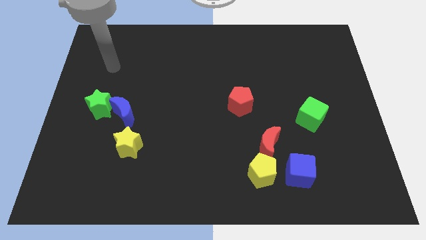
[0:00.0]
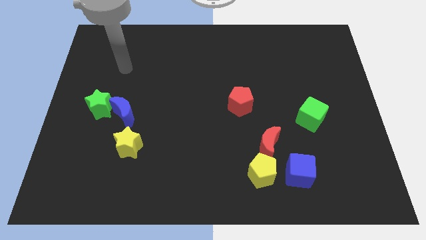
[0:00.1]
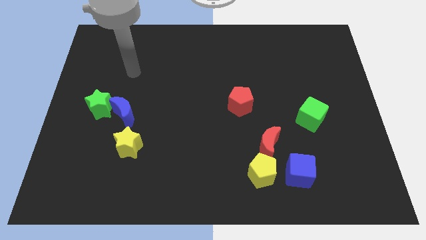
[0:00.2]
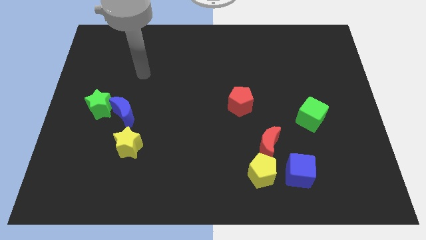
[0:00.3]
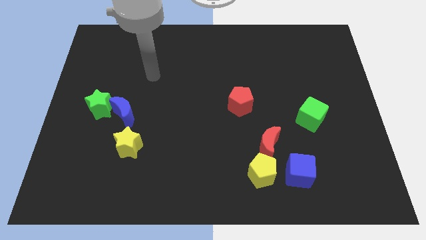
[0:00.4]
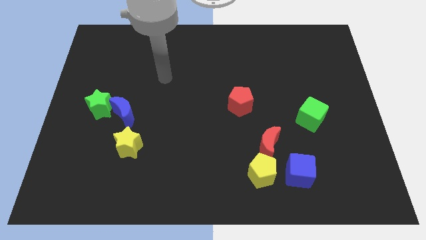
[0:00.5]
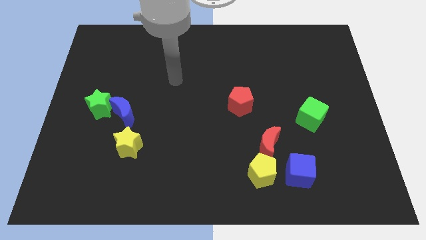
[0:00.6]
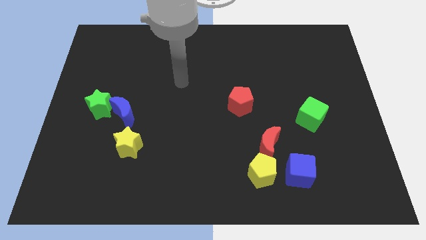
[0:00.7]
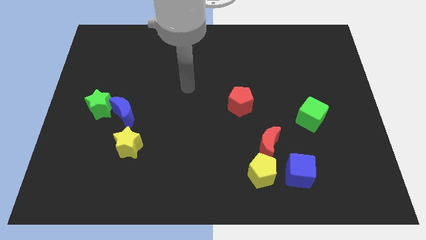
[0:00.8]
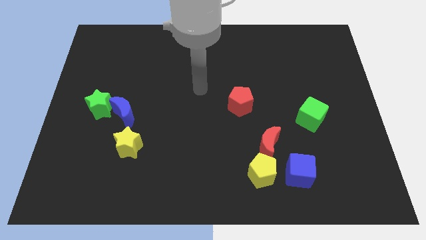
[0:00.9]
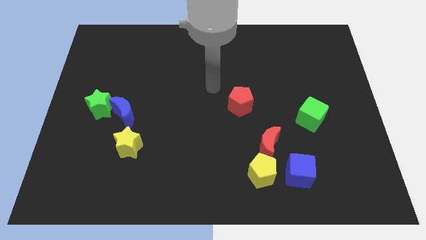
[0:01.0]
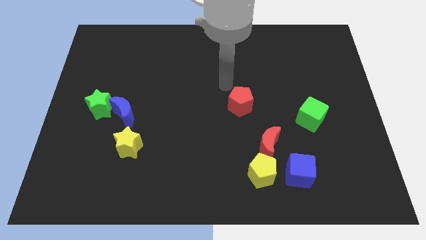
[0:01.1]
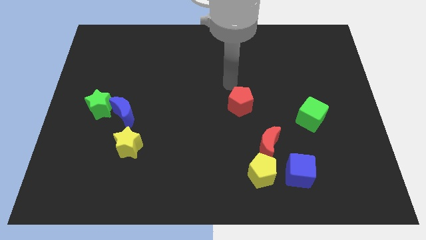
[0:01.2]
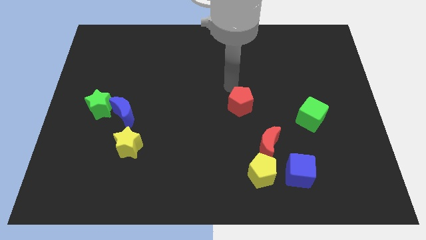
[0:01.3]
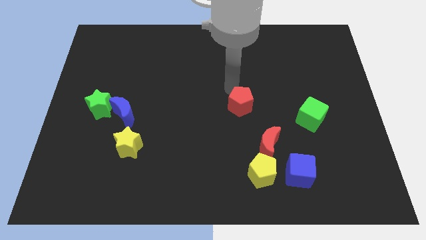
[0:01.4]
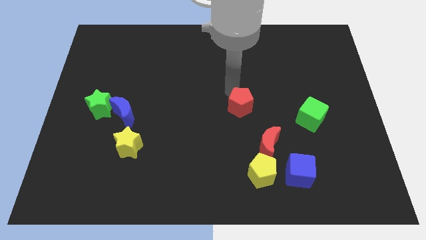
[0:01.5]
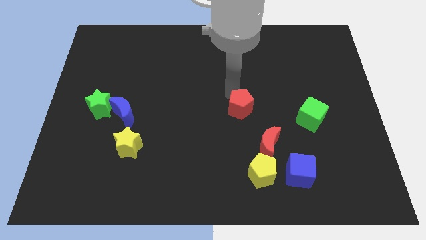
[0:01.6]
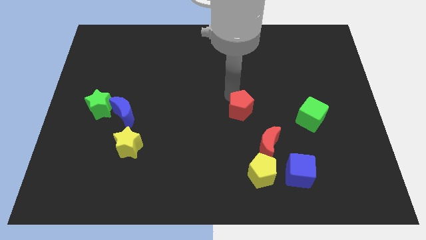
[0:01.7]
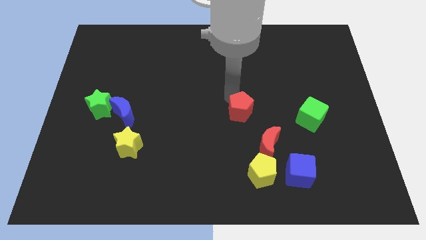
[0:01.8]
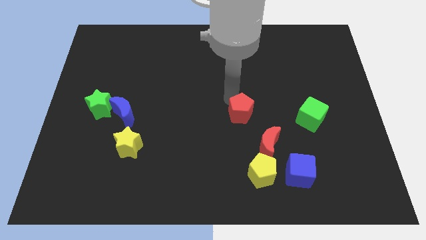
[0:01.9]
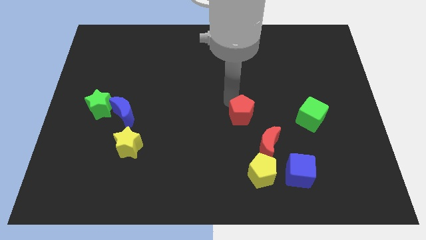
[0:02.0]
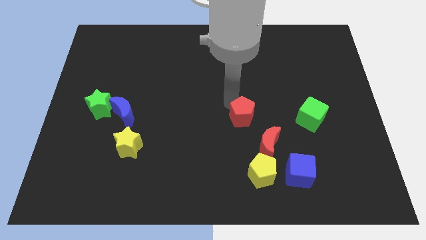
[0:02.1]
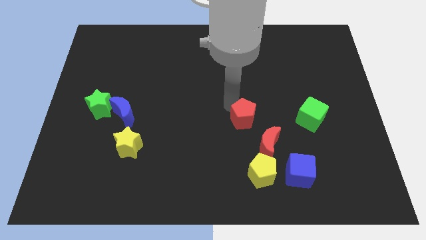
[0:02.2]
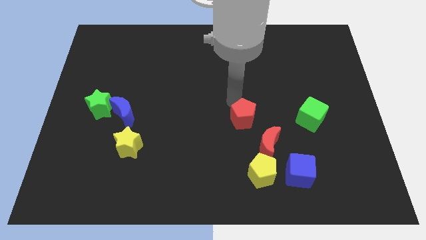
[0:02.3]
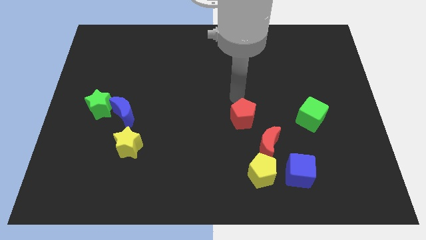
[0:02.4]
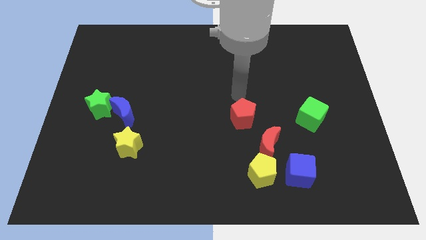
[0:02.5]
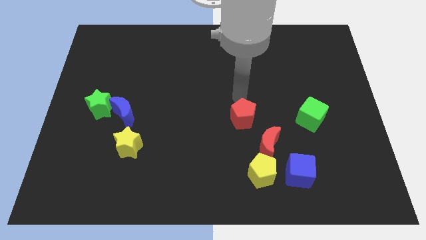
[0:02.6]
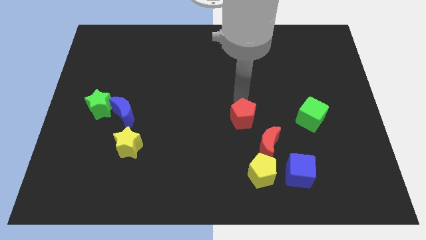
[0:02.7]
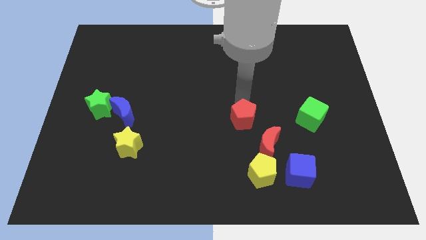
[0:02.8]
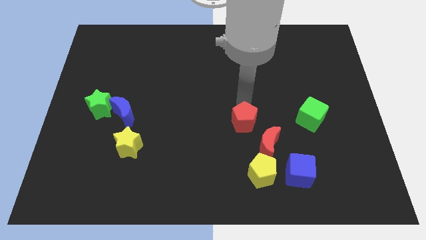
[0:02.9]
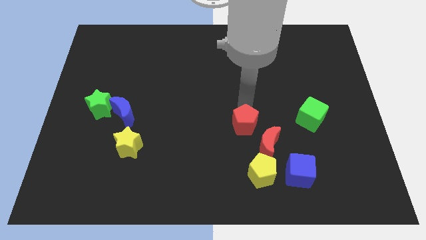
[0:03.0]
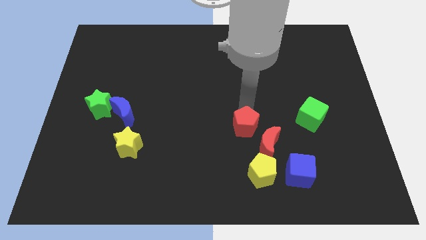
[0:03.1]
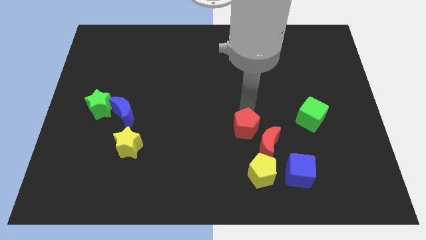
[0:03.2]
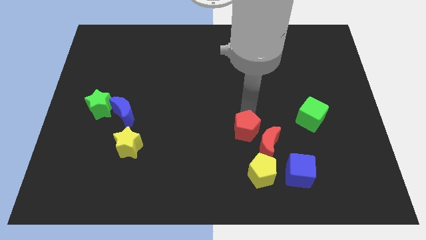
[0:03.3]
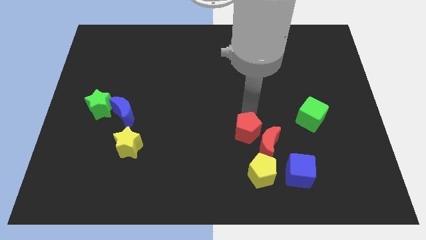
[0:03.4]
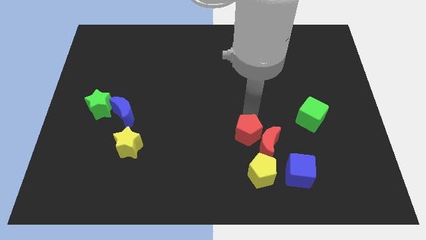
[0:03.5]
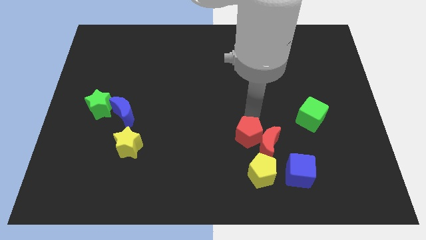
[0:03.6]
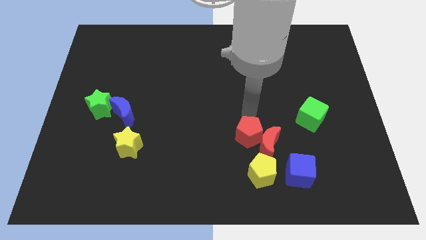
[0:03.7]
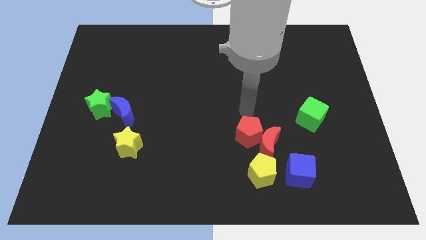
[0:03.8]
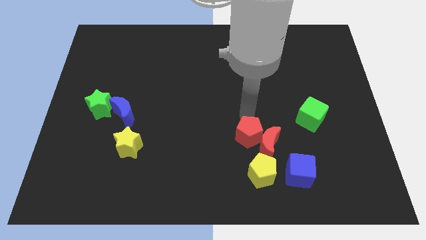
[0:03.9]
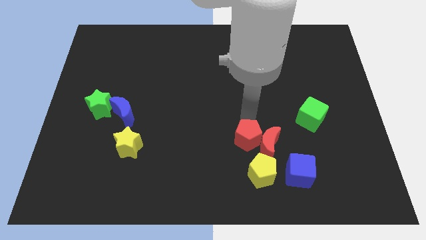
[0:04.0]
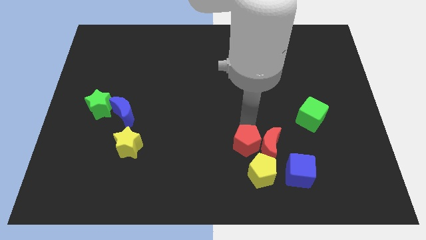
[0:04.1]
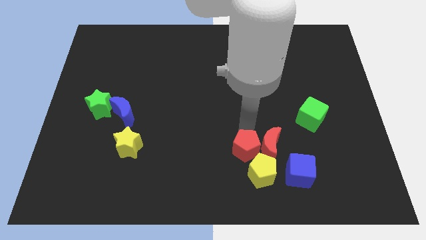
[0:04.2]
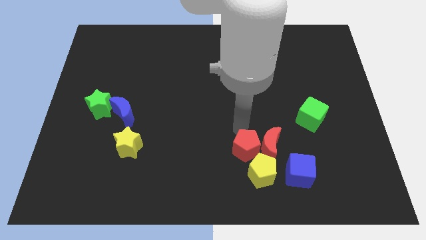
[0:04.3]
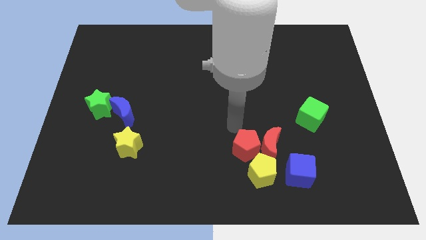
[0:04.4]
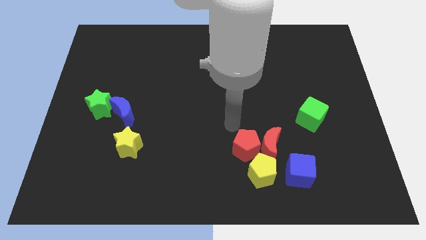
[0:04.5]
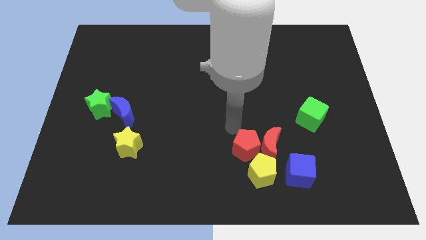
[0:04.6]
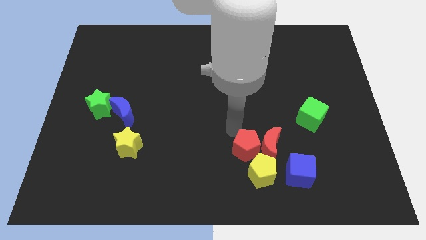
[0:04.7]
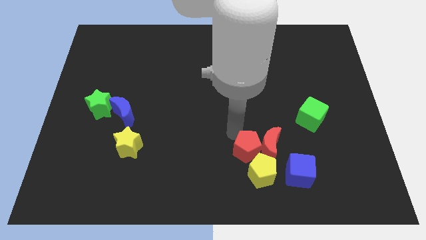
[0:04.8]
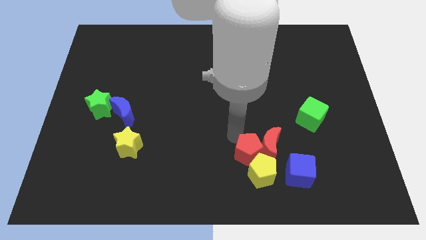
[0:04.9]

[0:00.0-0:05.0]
push the red pentagon next to the yellow pentagon

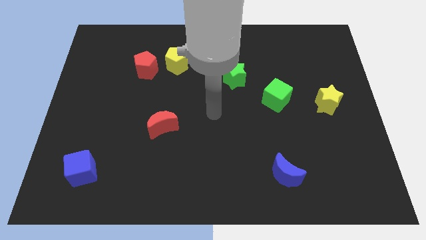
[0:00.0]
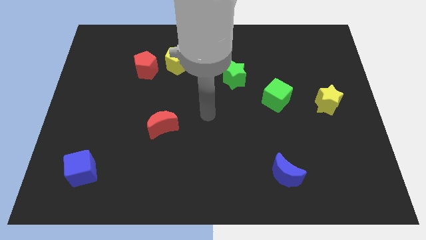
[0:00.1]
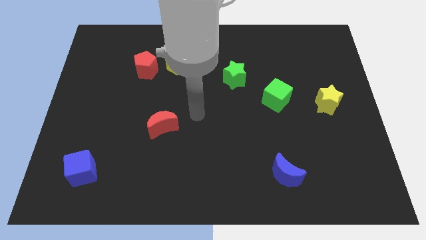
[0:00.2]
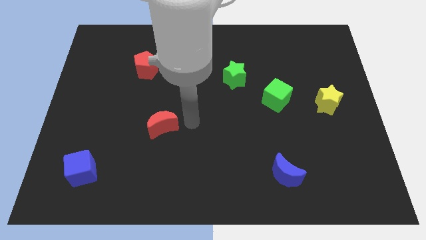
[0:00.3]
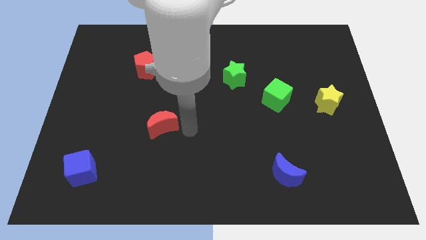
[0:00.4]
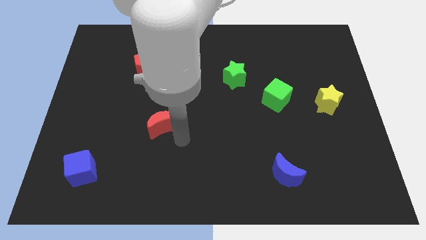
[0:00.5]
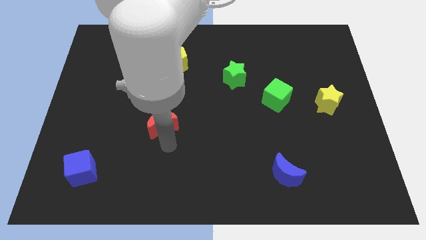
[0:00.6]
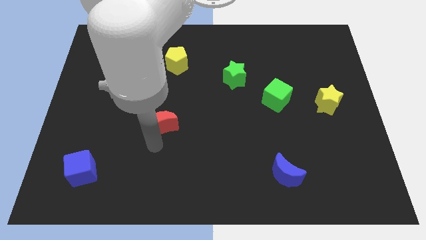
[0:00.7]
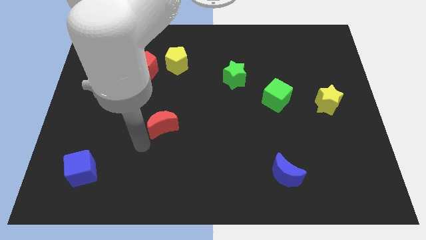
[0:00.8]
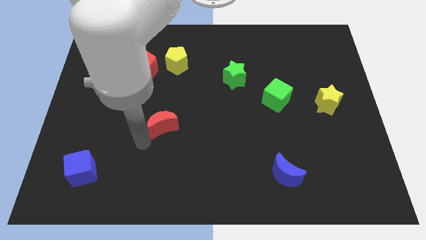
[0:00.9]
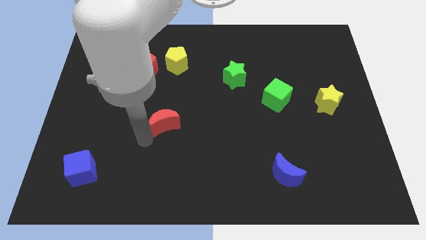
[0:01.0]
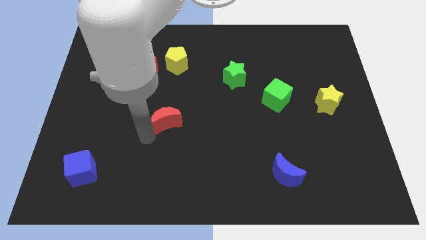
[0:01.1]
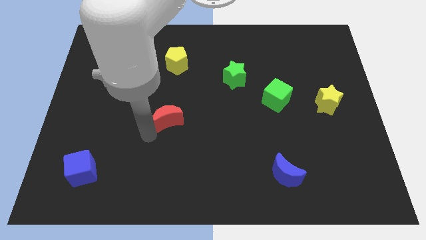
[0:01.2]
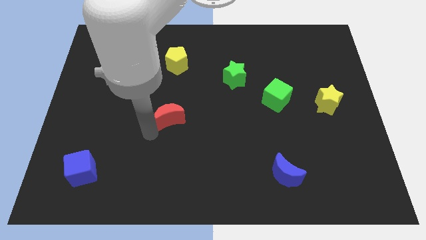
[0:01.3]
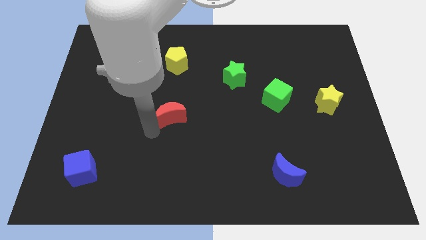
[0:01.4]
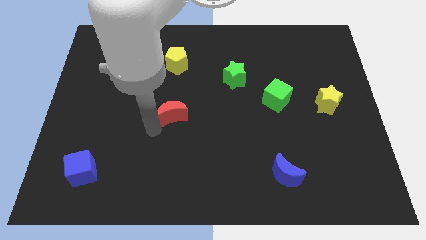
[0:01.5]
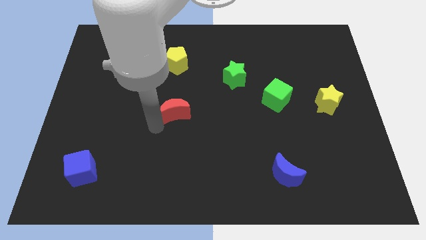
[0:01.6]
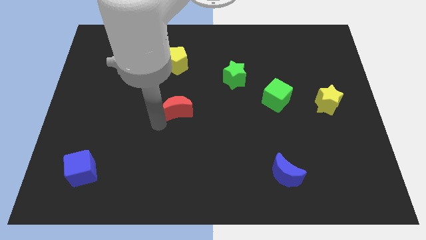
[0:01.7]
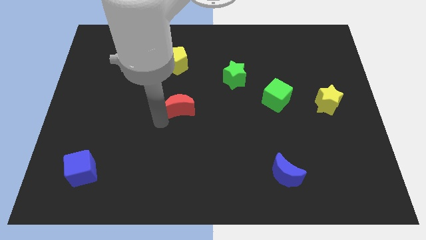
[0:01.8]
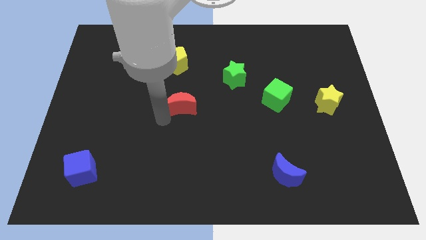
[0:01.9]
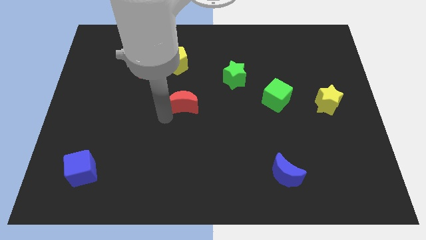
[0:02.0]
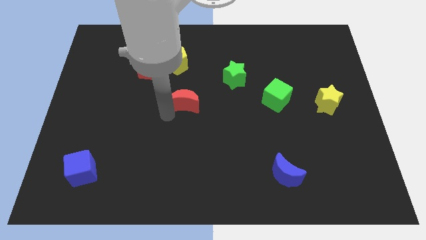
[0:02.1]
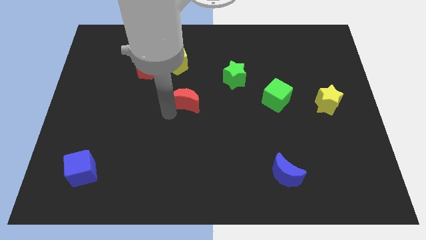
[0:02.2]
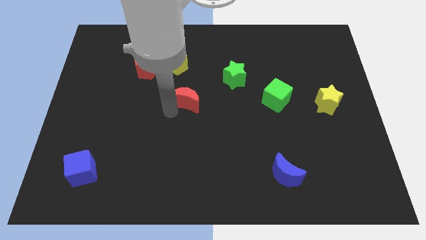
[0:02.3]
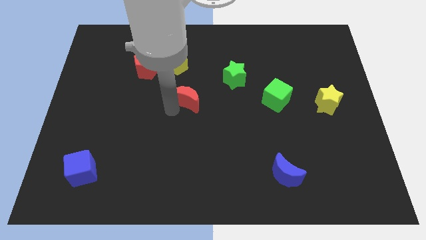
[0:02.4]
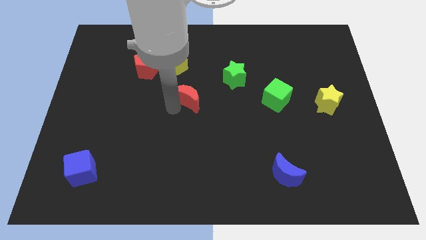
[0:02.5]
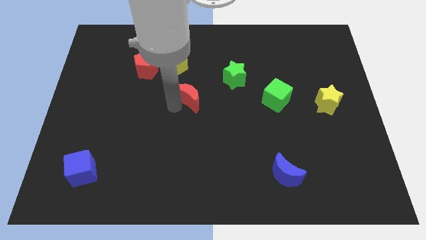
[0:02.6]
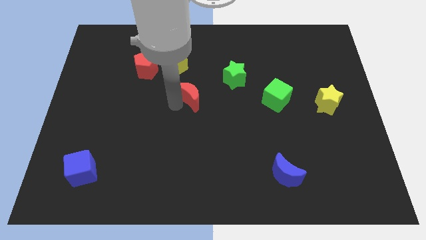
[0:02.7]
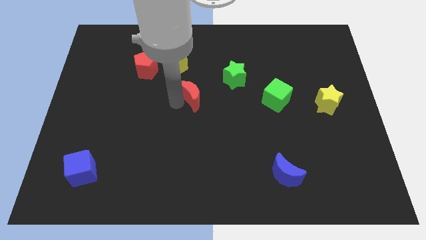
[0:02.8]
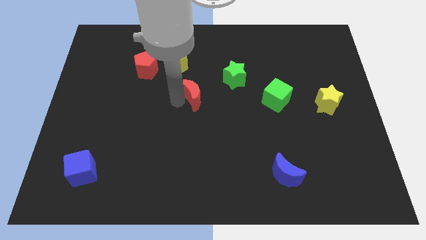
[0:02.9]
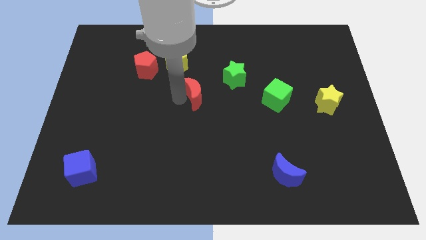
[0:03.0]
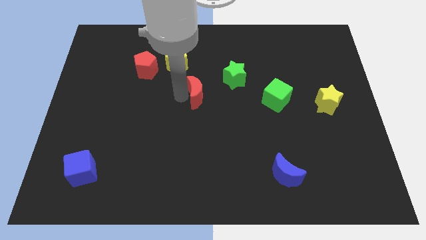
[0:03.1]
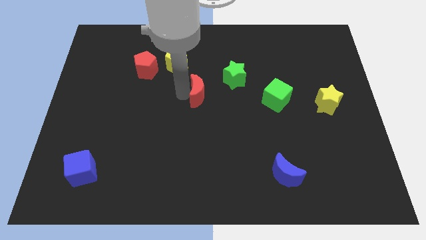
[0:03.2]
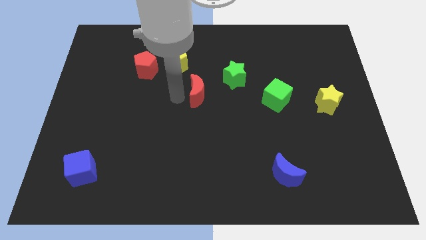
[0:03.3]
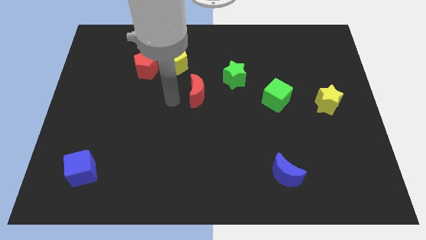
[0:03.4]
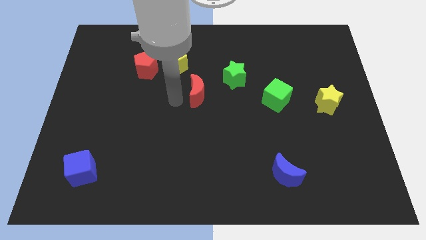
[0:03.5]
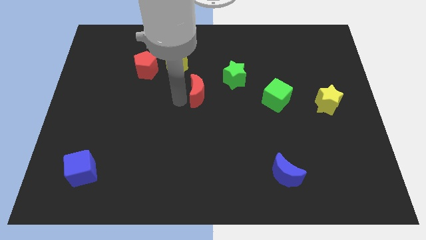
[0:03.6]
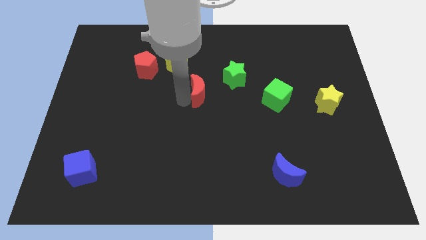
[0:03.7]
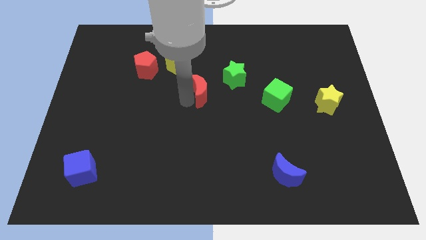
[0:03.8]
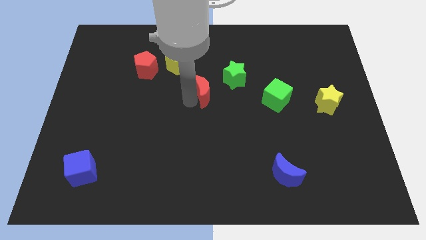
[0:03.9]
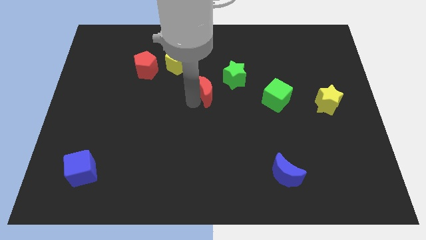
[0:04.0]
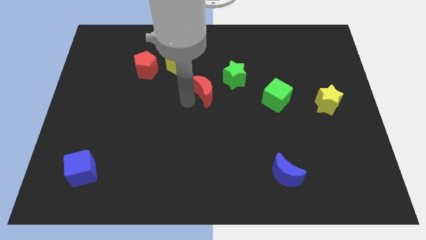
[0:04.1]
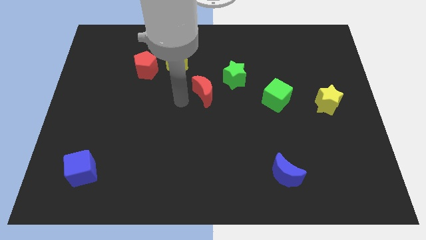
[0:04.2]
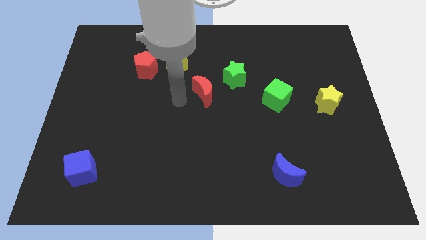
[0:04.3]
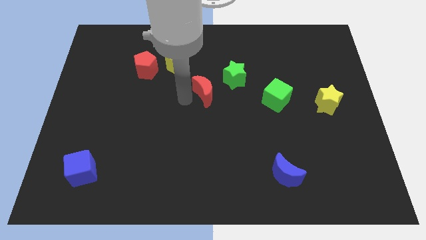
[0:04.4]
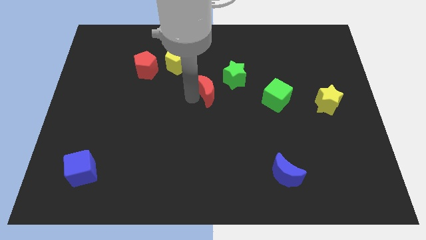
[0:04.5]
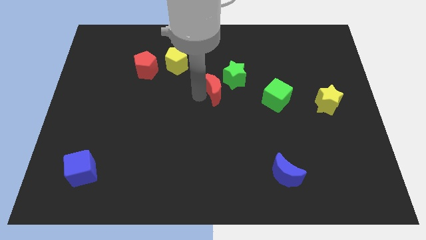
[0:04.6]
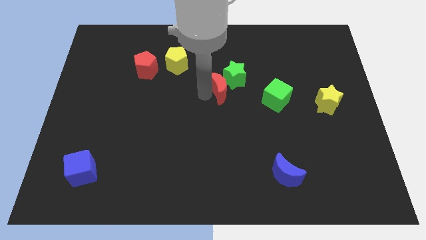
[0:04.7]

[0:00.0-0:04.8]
slide the red moon towards the green star
